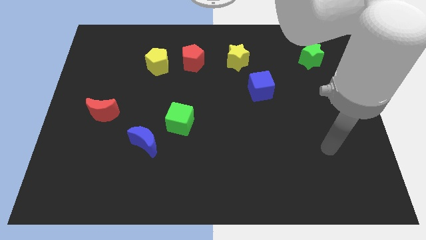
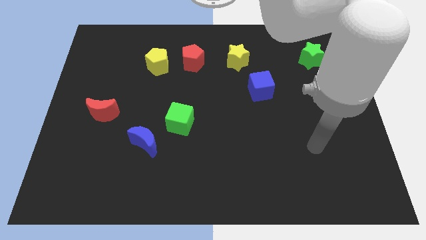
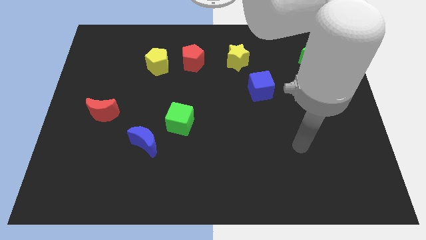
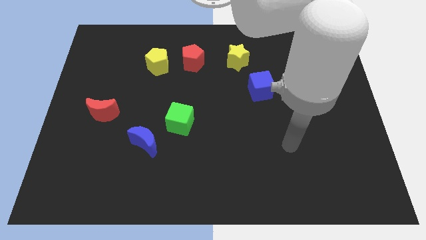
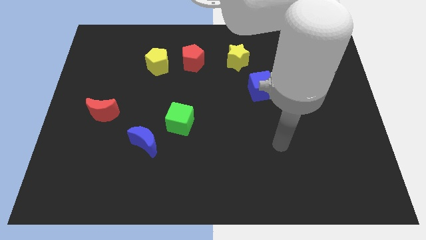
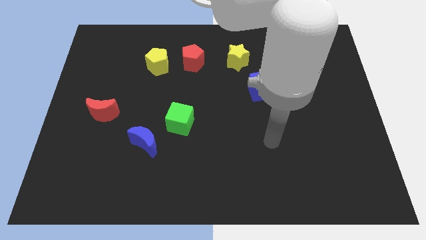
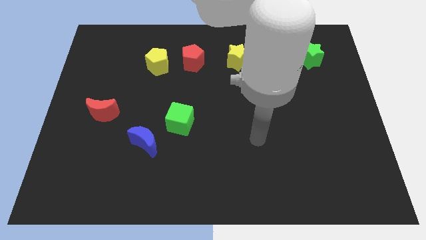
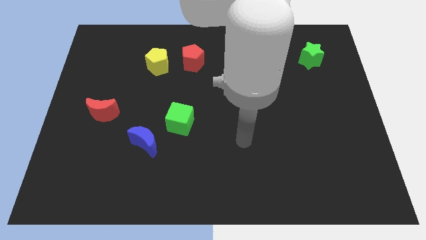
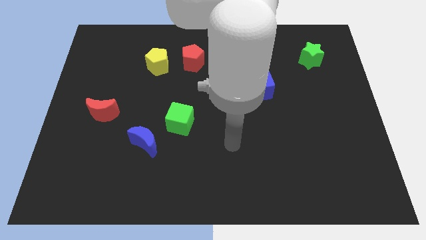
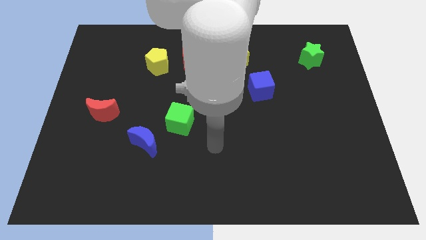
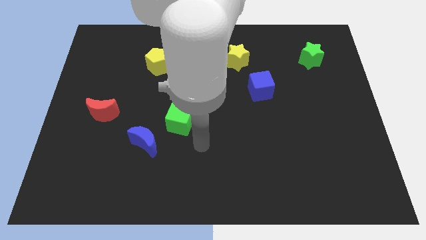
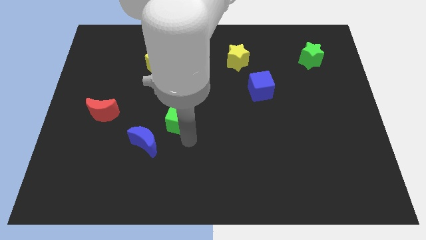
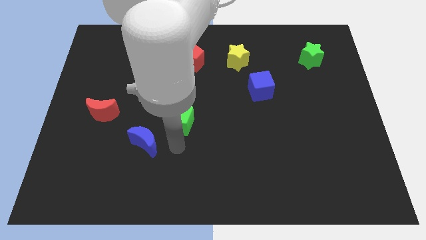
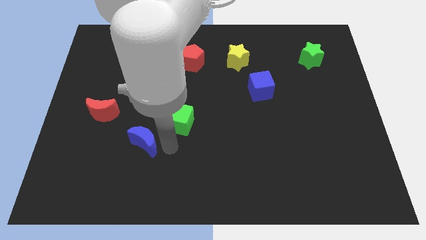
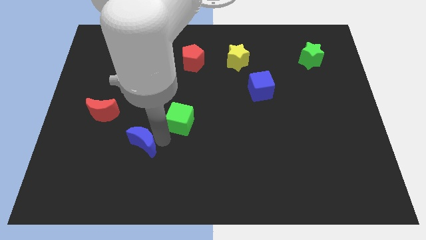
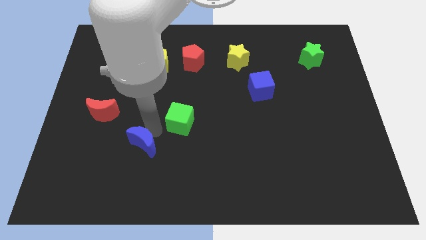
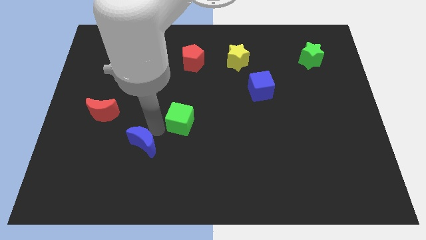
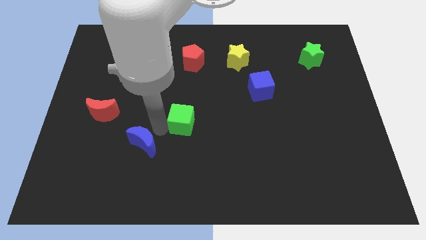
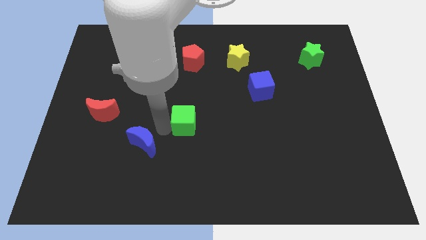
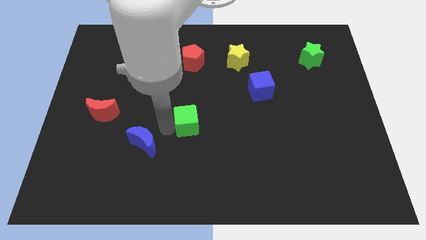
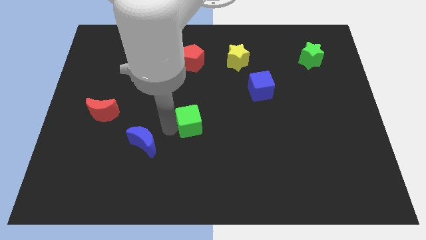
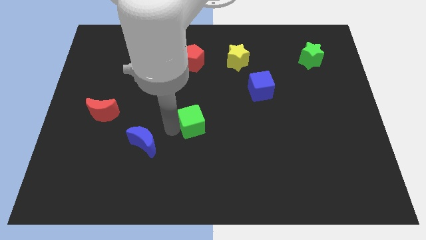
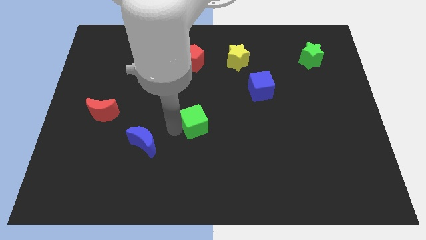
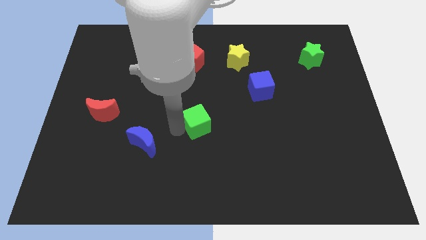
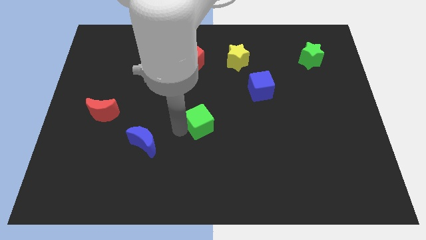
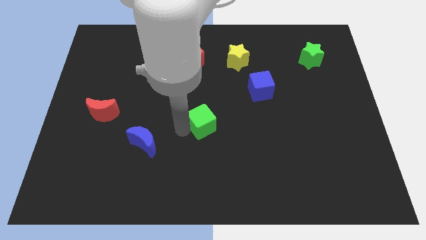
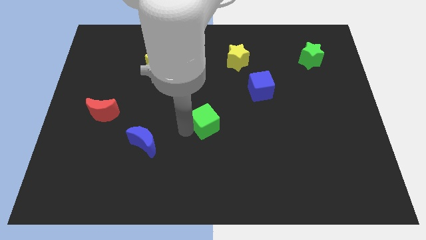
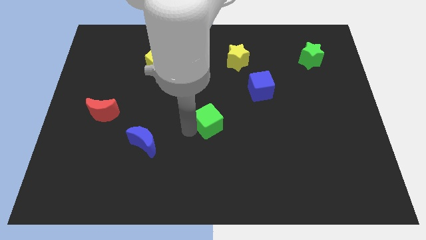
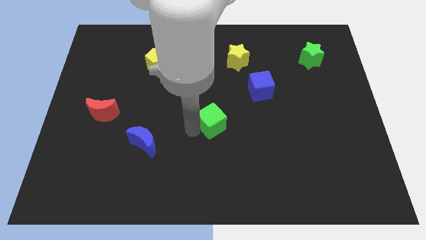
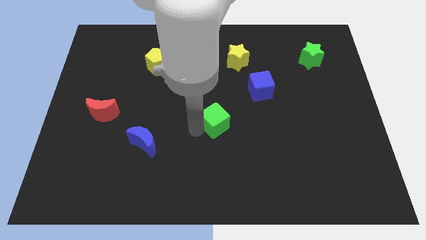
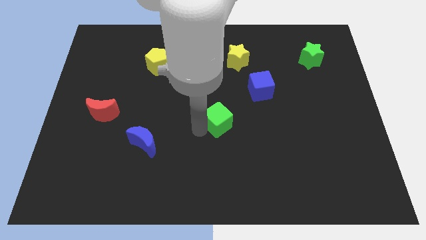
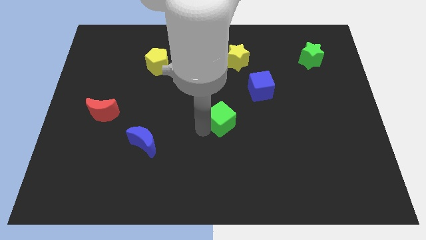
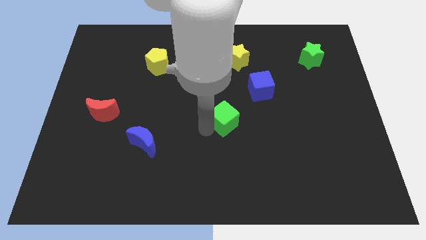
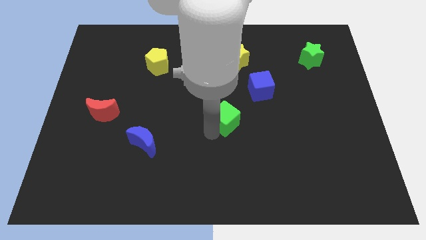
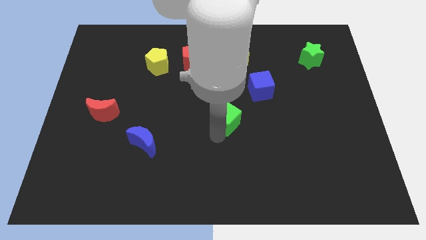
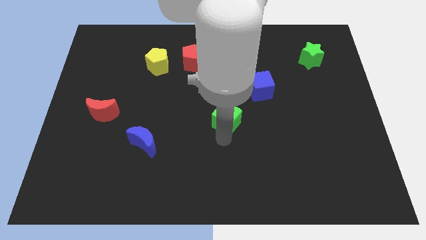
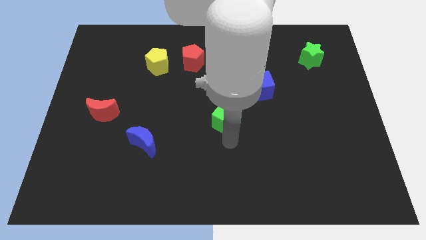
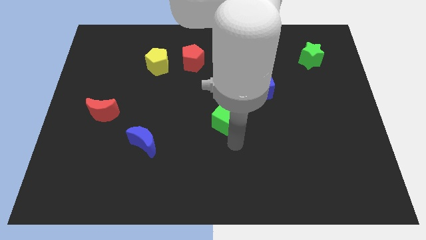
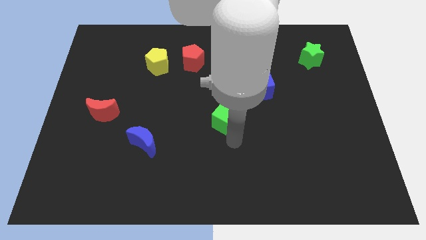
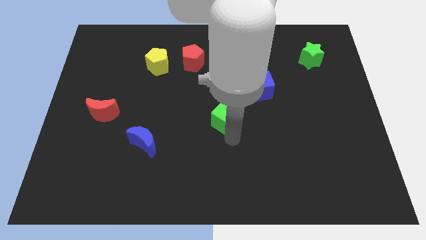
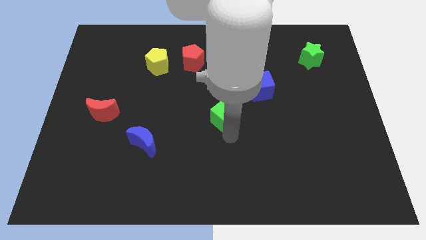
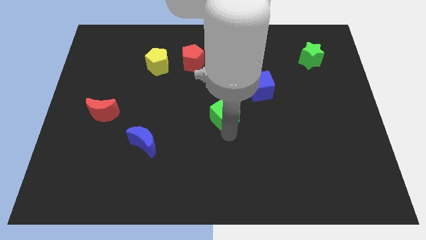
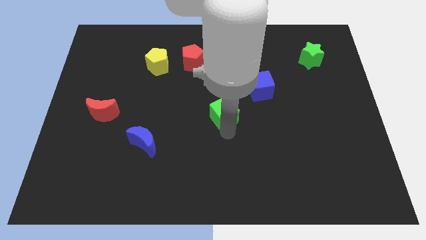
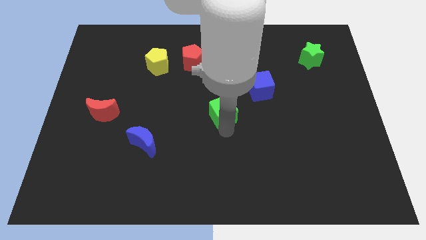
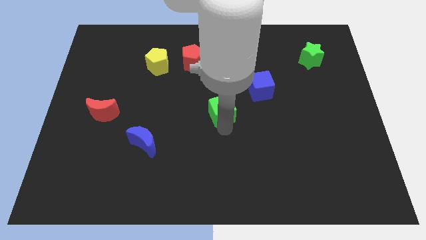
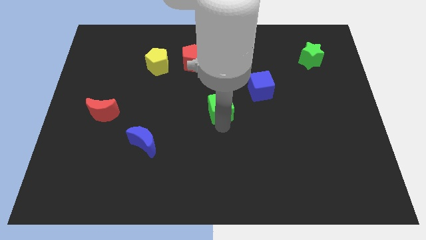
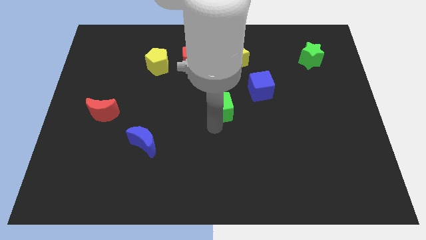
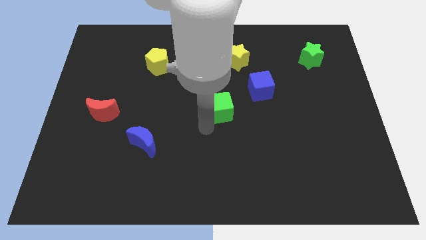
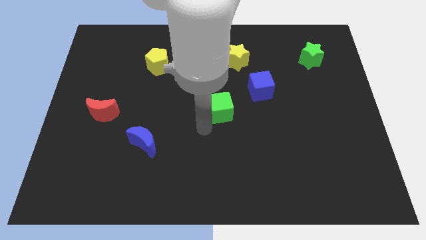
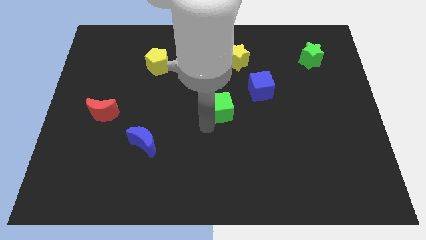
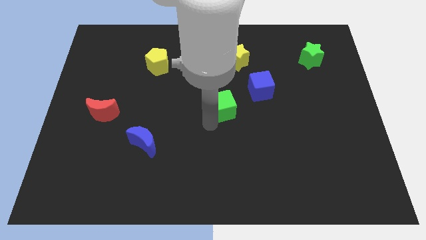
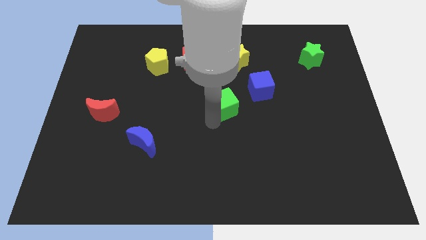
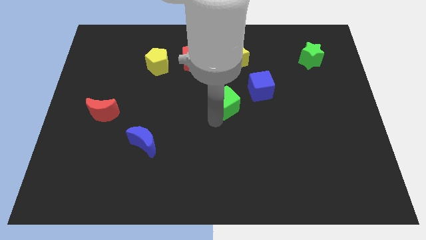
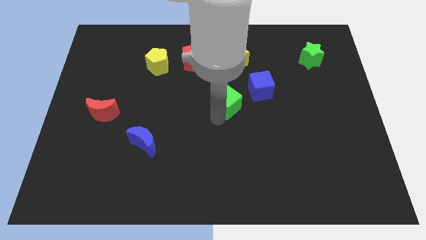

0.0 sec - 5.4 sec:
push the green cube to the bottom of the yellow star

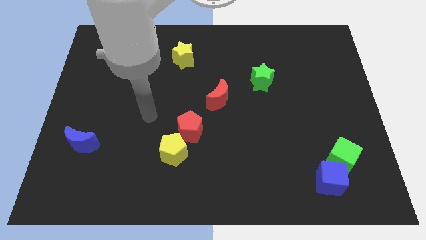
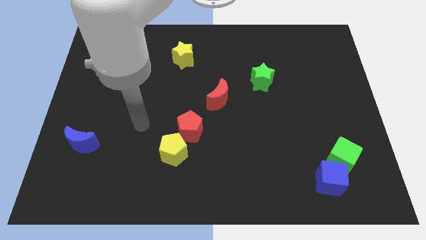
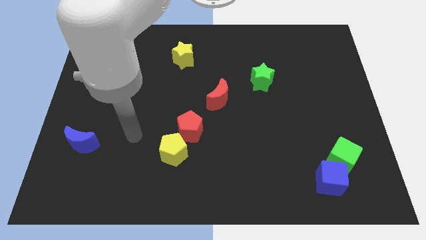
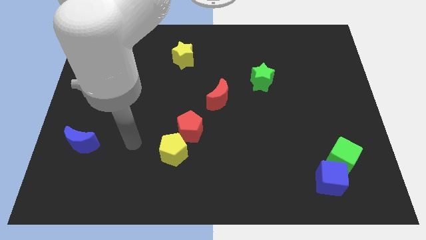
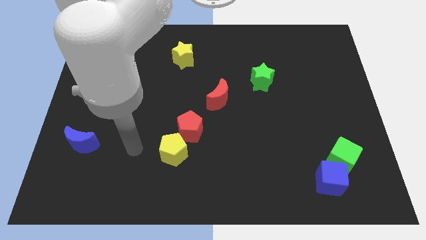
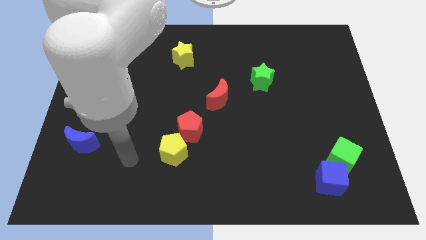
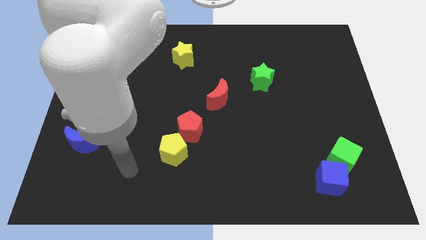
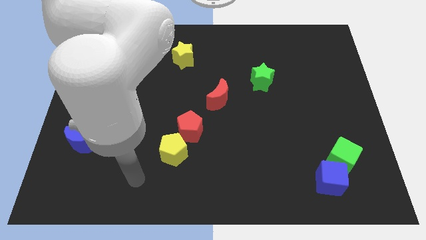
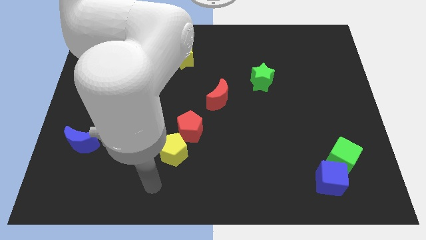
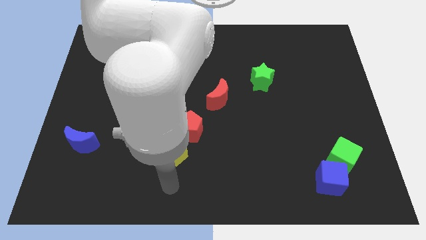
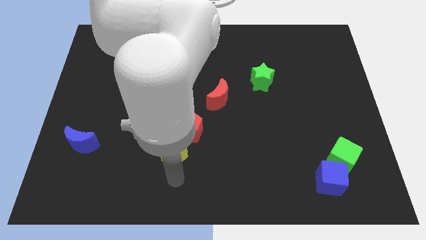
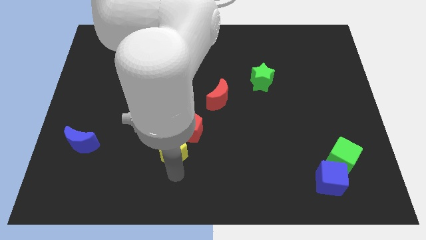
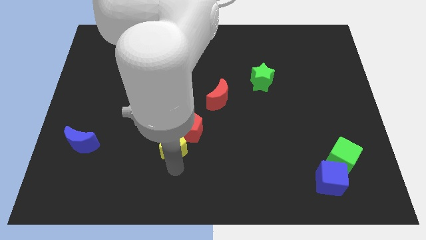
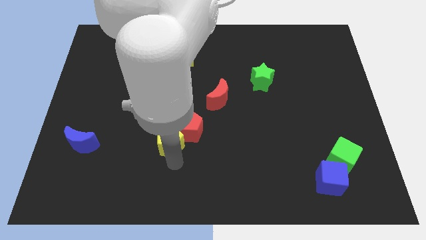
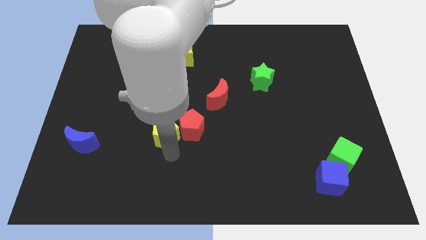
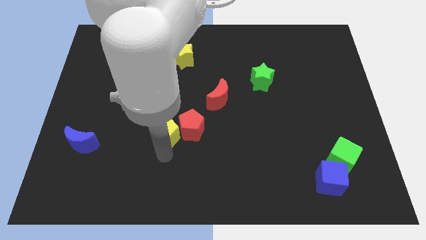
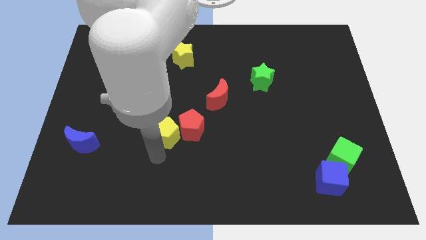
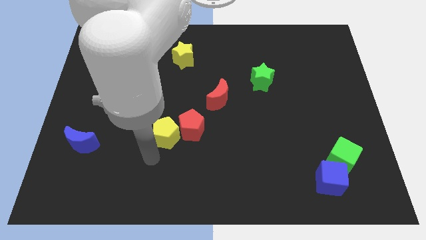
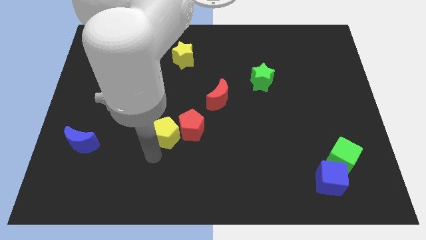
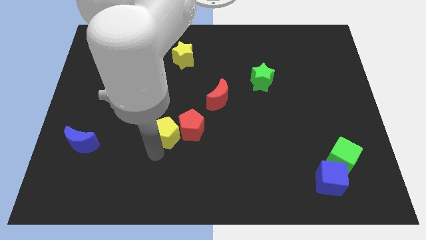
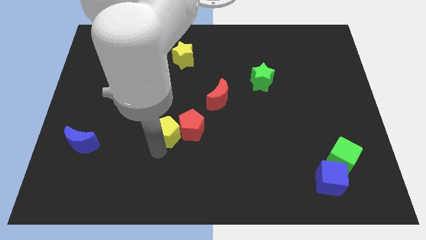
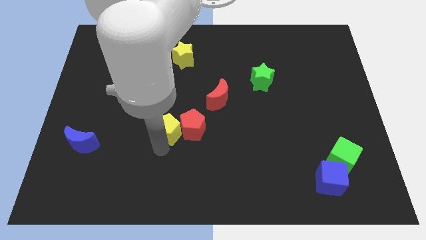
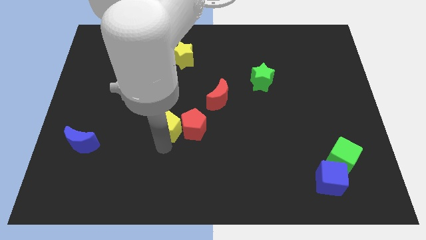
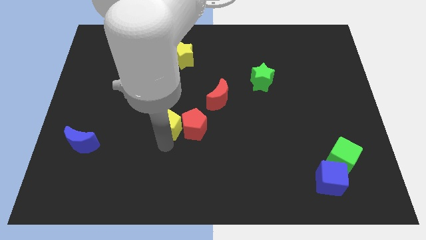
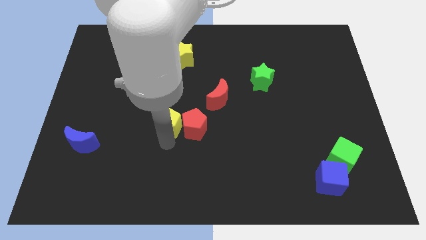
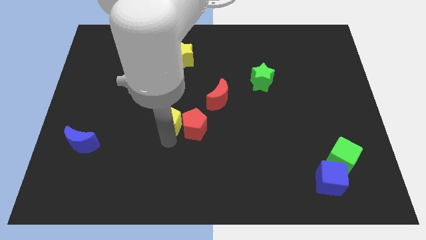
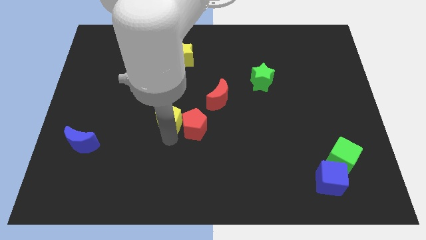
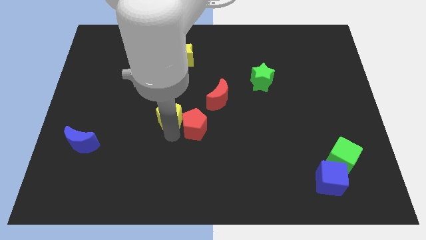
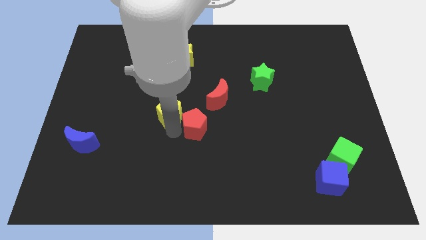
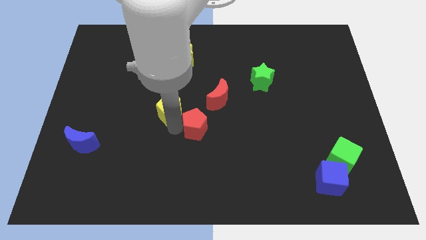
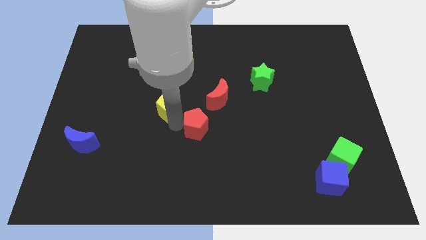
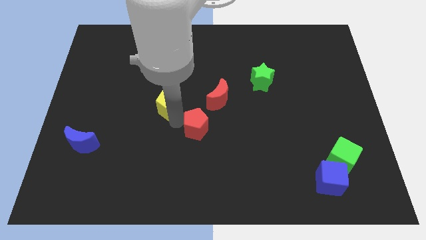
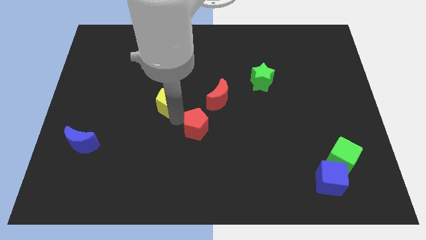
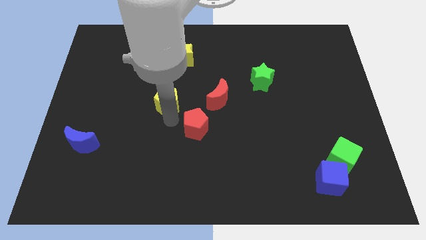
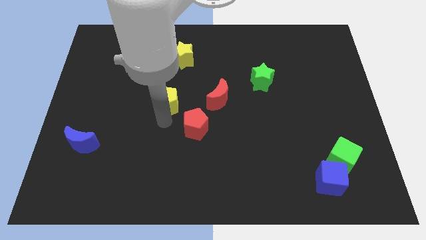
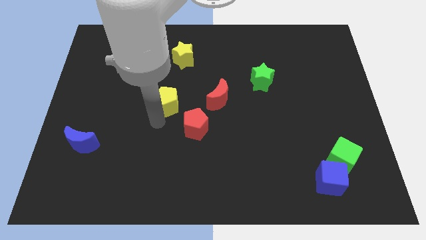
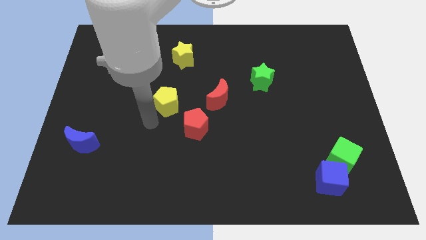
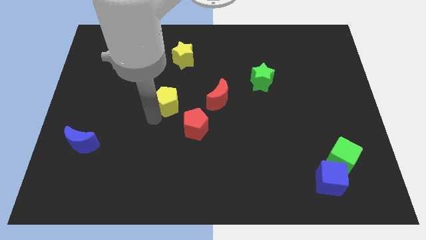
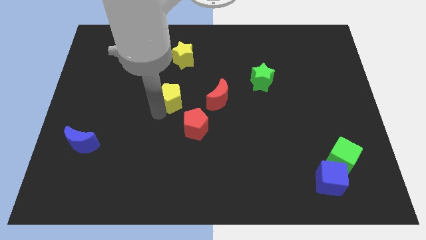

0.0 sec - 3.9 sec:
put the yellow pentagon below the yellow star
